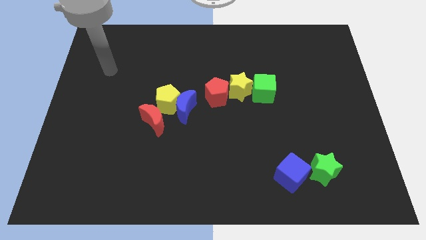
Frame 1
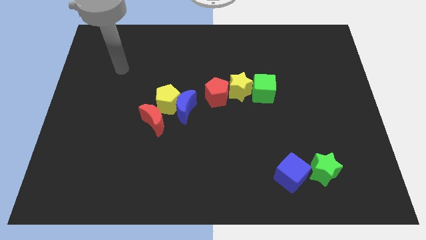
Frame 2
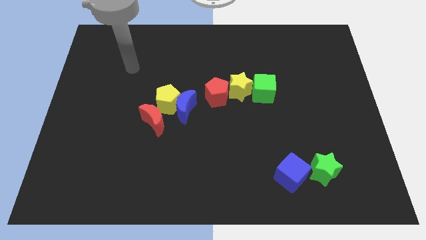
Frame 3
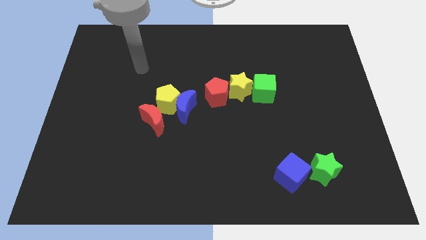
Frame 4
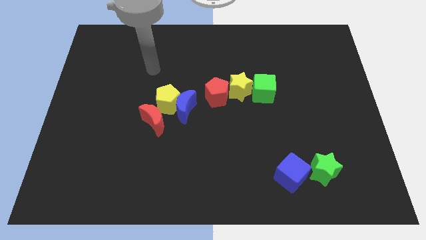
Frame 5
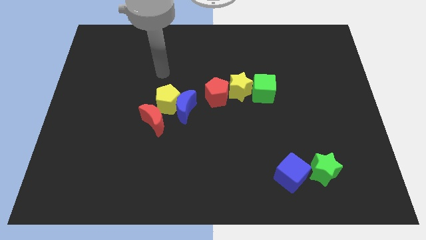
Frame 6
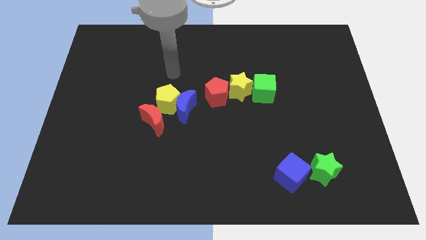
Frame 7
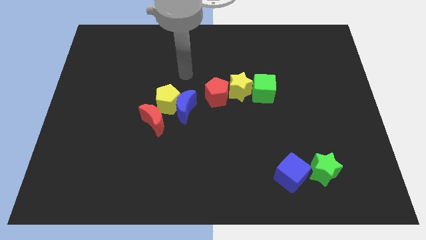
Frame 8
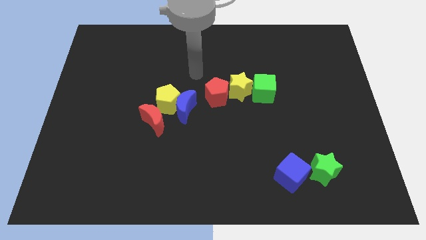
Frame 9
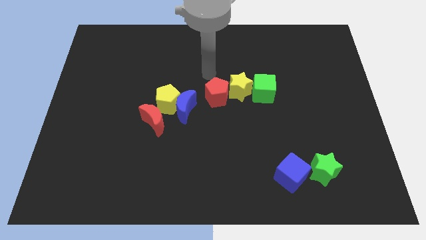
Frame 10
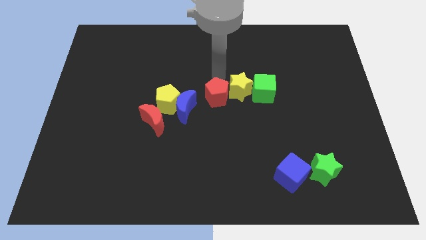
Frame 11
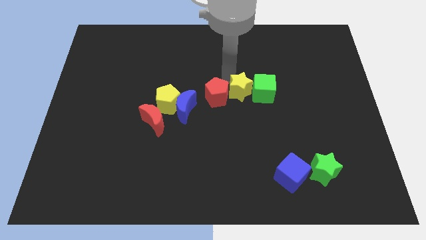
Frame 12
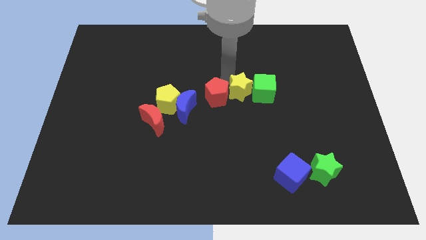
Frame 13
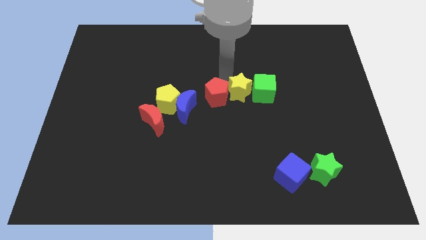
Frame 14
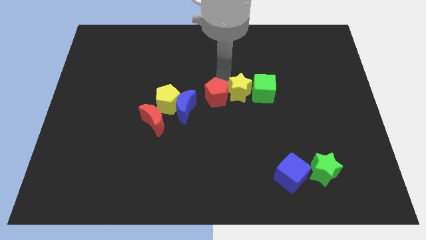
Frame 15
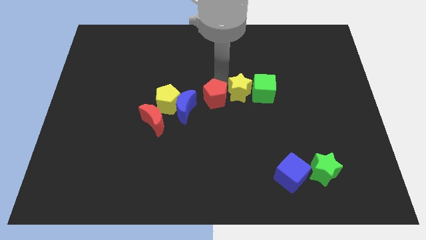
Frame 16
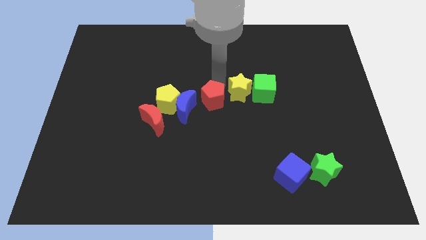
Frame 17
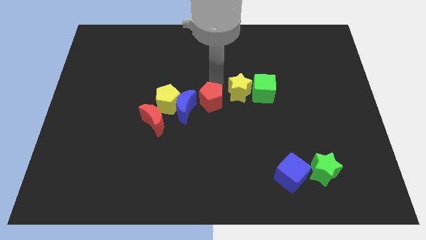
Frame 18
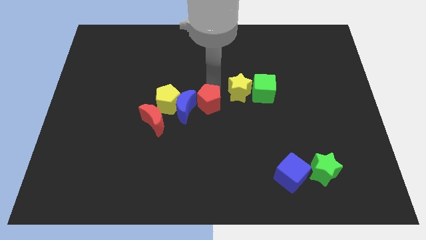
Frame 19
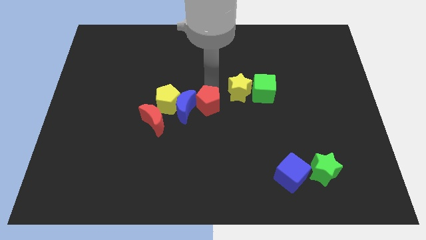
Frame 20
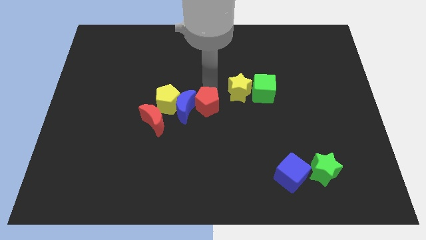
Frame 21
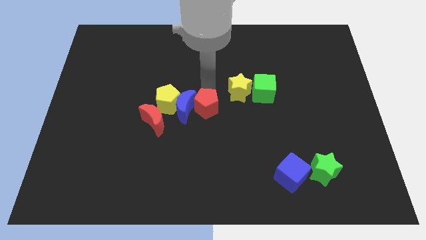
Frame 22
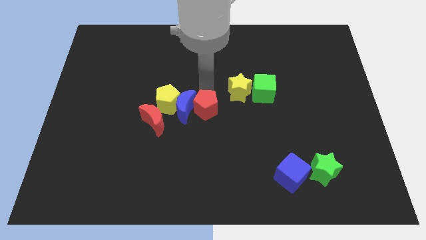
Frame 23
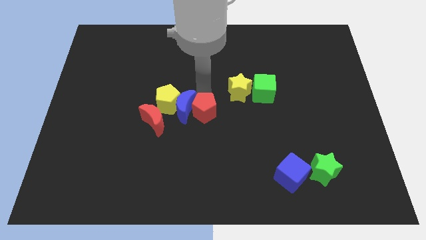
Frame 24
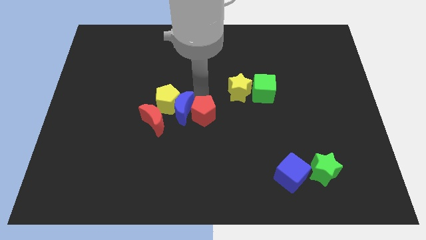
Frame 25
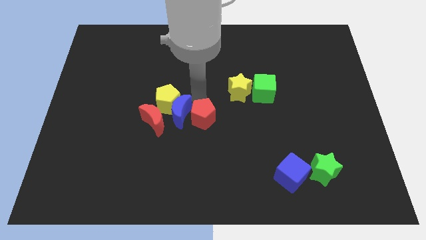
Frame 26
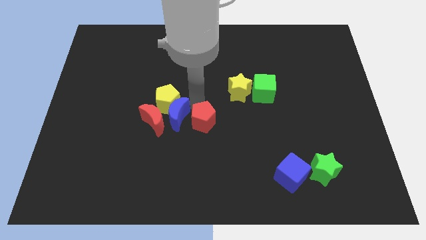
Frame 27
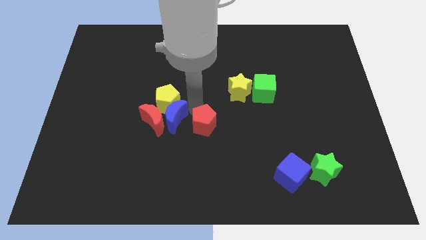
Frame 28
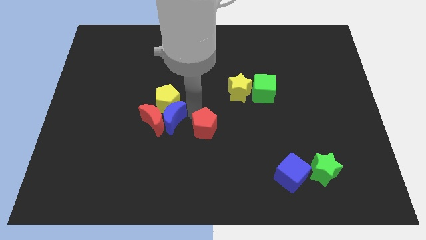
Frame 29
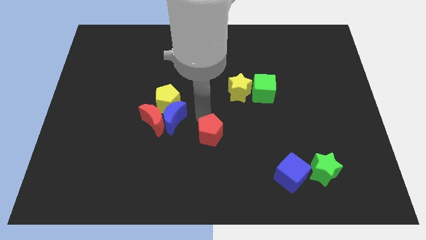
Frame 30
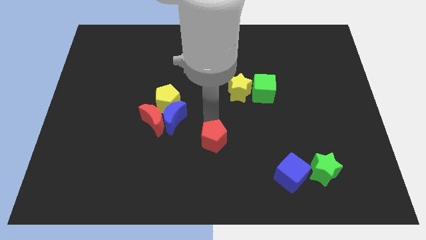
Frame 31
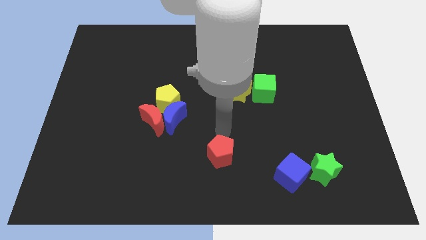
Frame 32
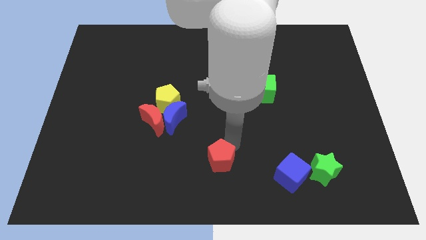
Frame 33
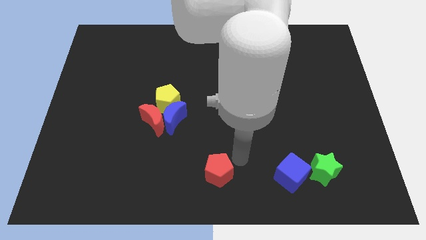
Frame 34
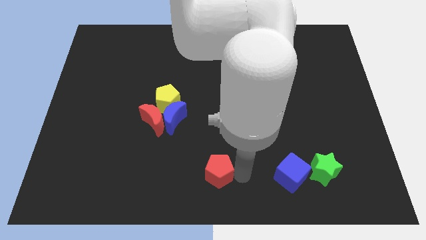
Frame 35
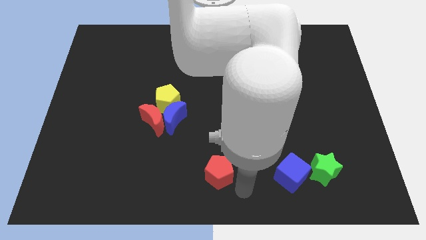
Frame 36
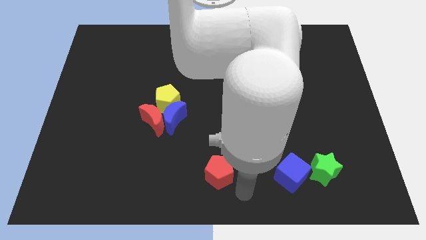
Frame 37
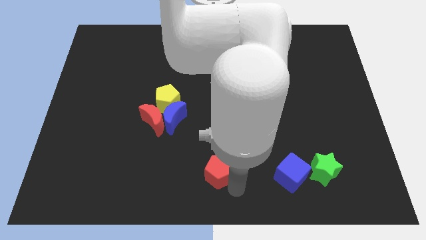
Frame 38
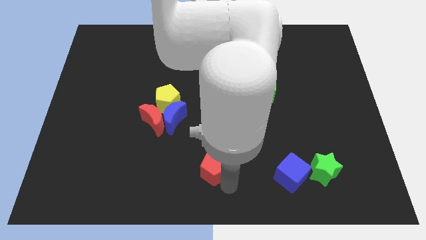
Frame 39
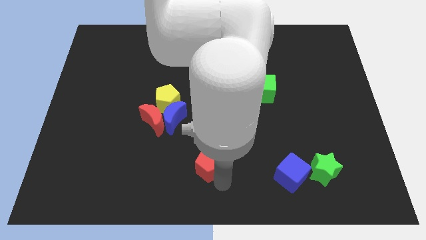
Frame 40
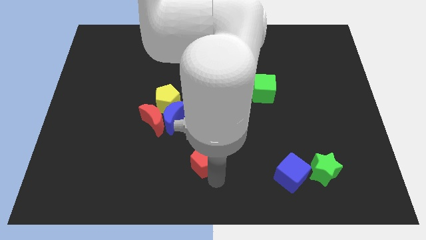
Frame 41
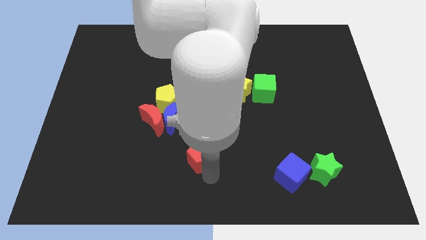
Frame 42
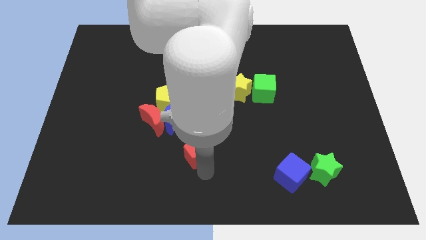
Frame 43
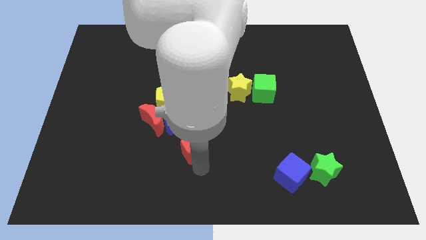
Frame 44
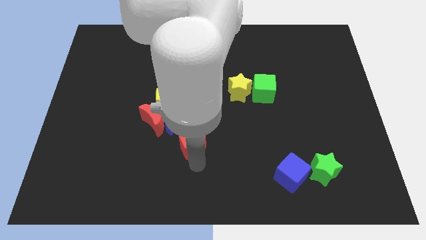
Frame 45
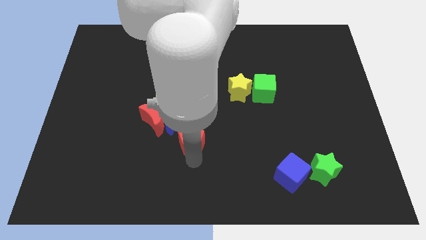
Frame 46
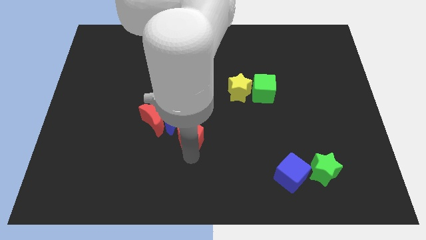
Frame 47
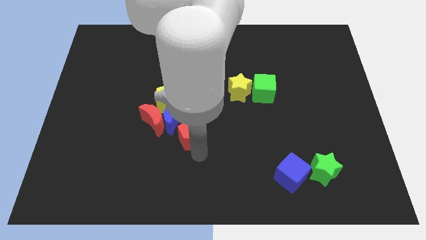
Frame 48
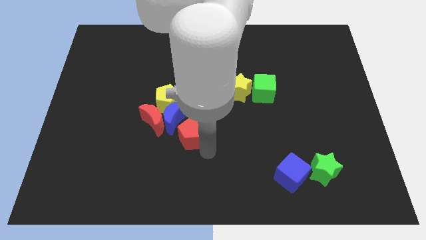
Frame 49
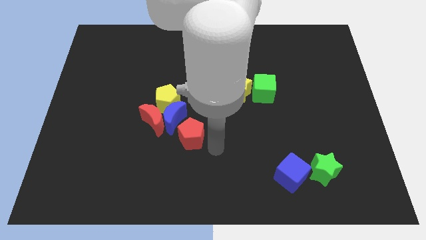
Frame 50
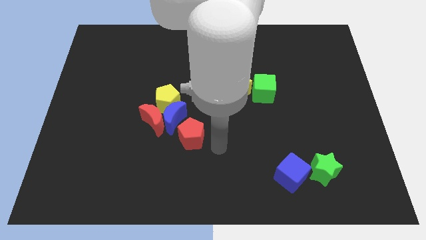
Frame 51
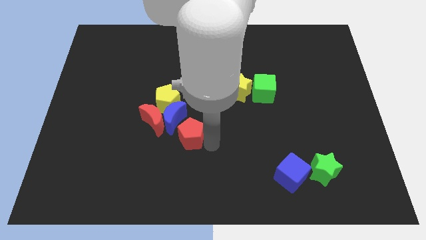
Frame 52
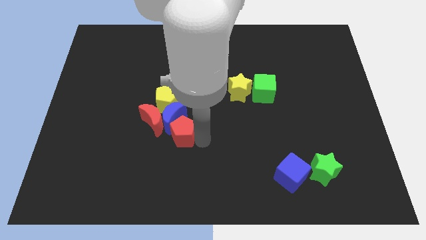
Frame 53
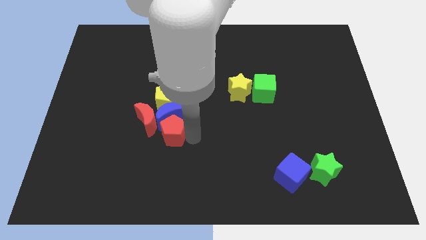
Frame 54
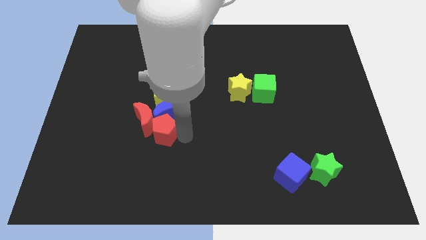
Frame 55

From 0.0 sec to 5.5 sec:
slide the red pentagon towards the red moon

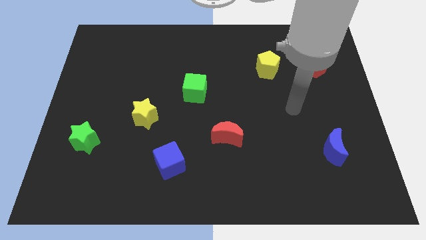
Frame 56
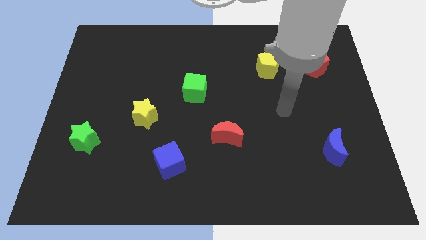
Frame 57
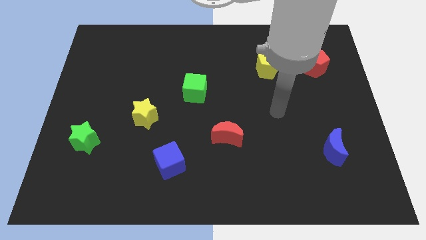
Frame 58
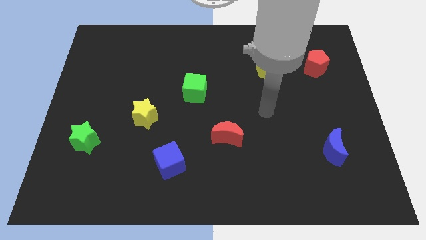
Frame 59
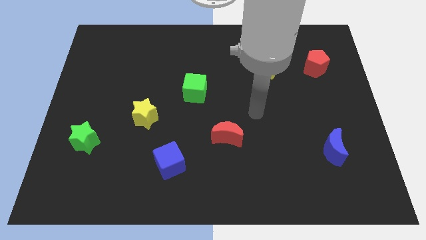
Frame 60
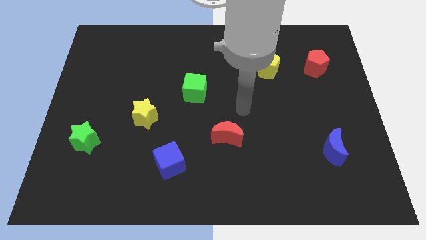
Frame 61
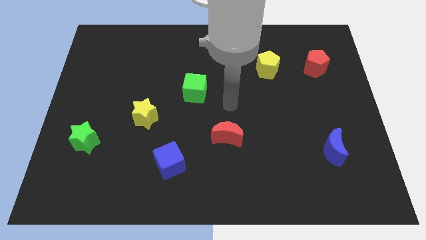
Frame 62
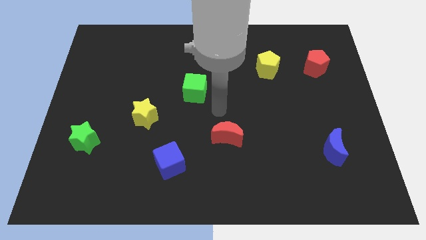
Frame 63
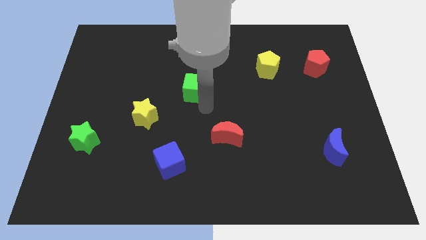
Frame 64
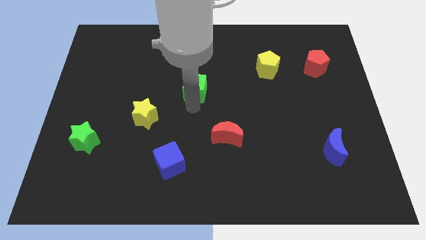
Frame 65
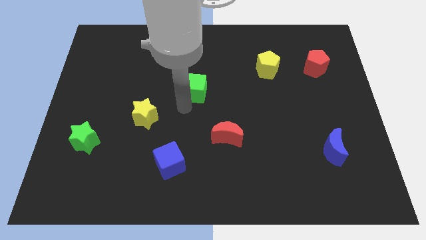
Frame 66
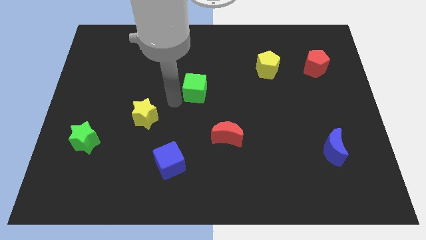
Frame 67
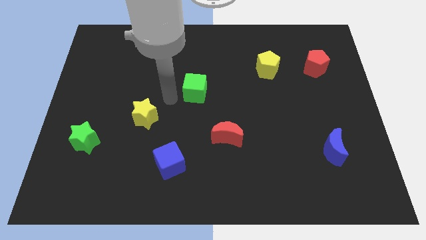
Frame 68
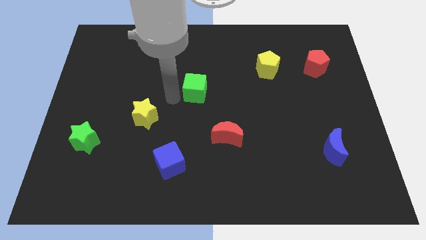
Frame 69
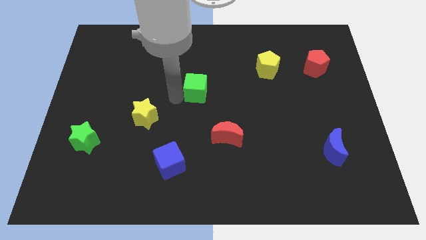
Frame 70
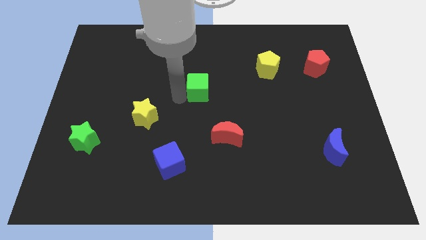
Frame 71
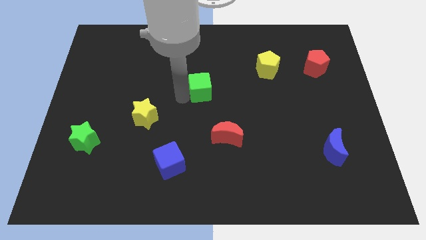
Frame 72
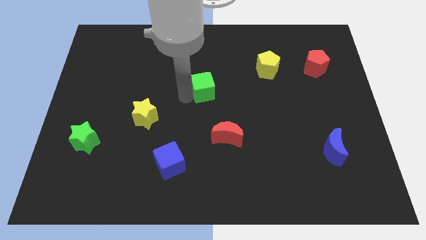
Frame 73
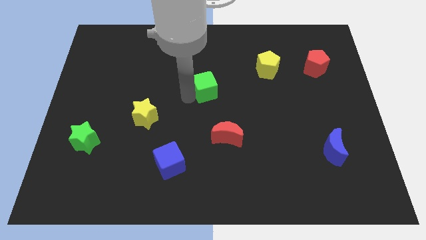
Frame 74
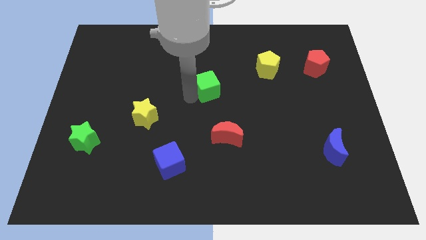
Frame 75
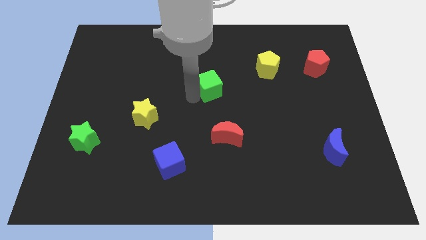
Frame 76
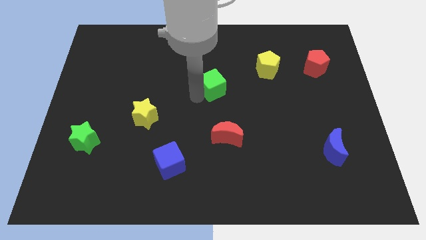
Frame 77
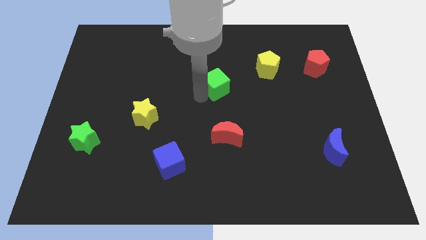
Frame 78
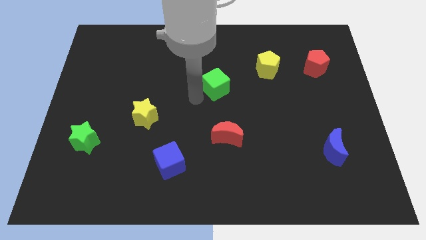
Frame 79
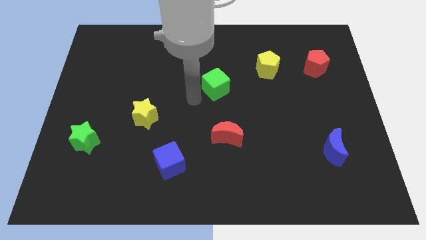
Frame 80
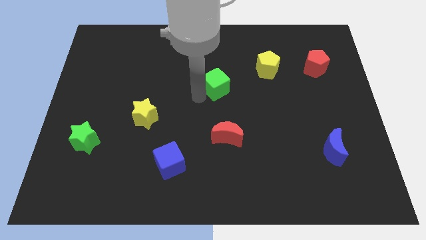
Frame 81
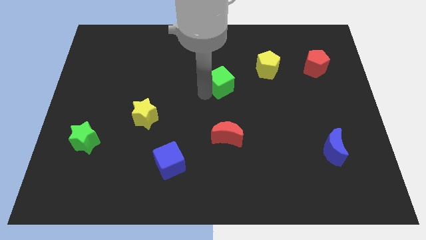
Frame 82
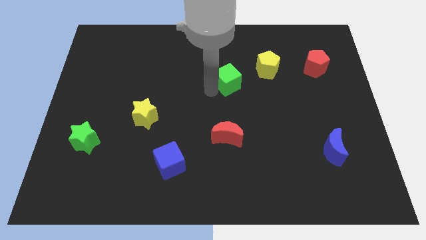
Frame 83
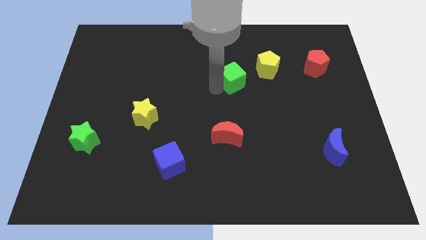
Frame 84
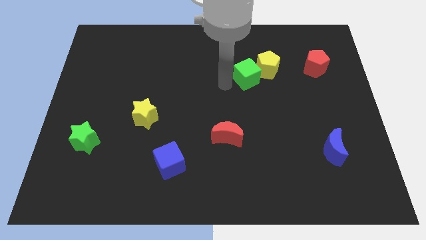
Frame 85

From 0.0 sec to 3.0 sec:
slide the green cube towards the yellow pentagon
